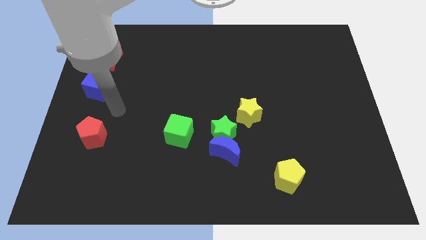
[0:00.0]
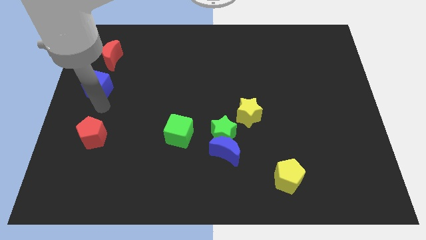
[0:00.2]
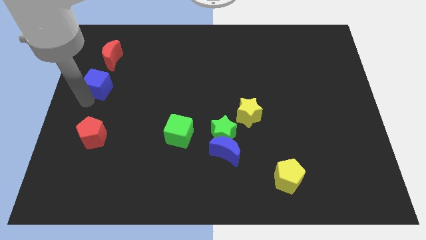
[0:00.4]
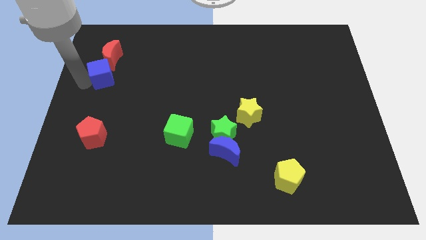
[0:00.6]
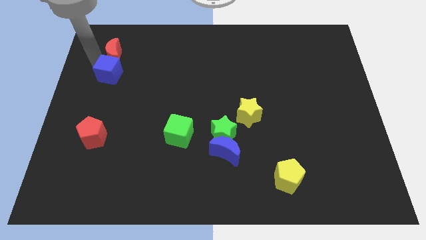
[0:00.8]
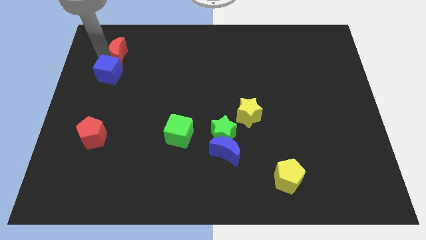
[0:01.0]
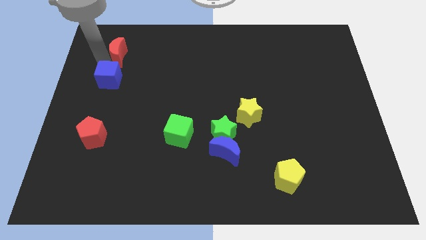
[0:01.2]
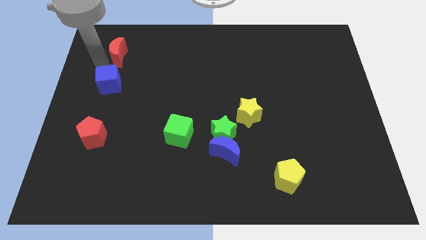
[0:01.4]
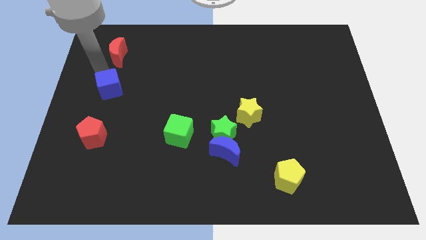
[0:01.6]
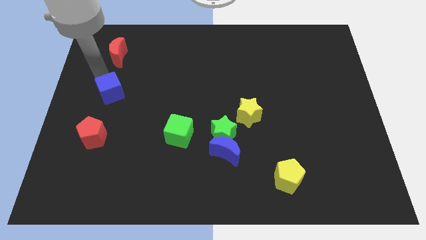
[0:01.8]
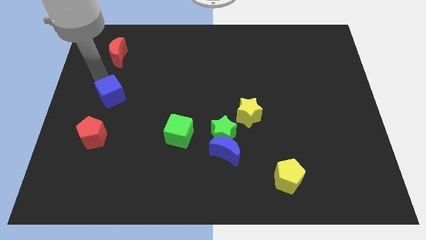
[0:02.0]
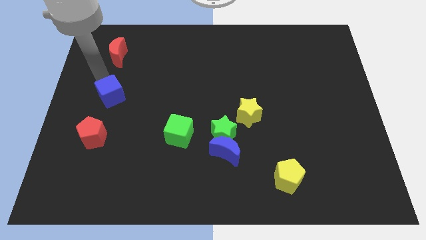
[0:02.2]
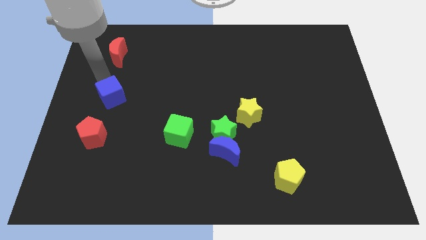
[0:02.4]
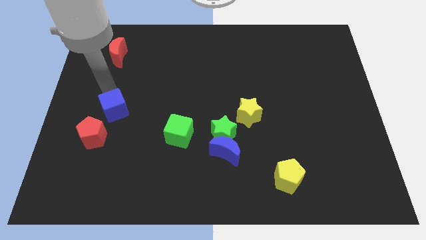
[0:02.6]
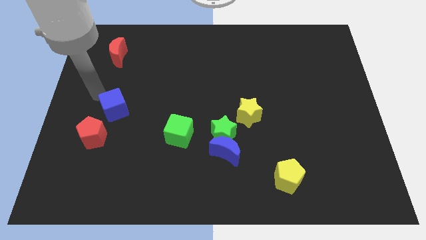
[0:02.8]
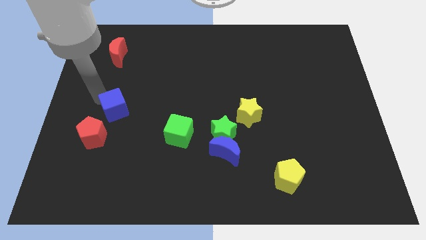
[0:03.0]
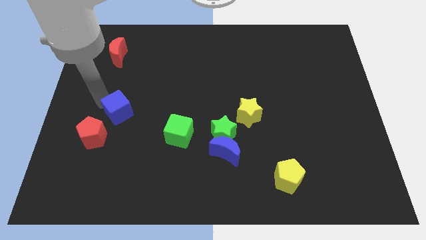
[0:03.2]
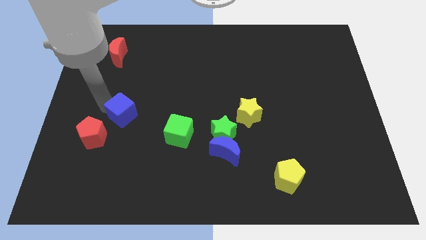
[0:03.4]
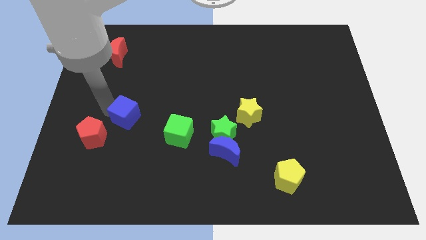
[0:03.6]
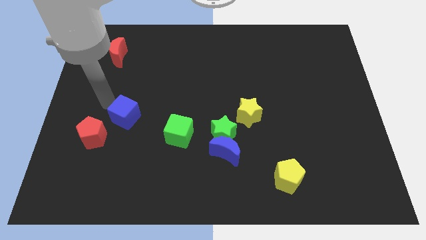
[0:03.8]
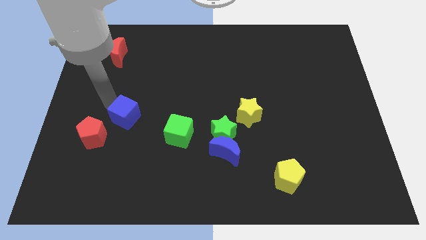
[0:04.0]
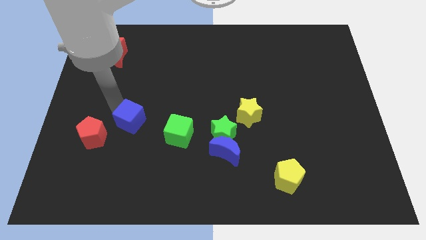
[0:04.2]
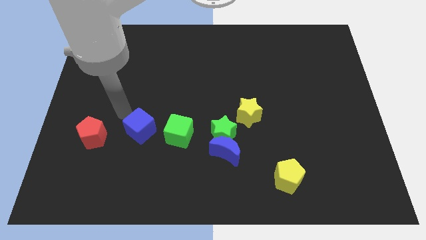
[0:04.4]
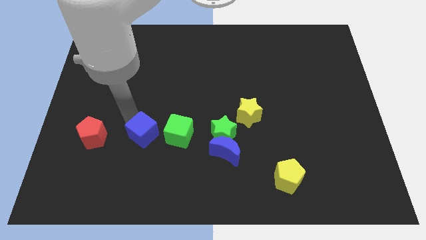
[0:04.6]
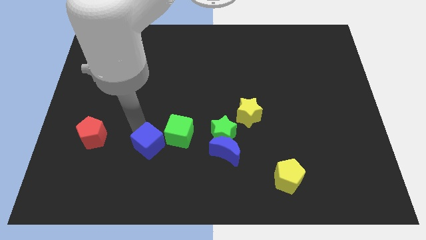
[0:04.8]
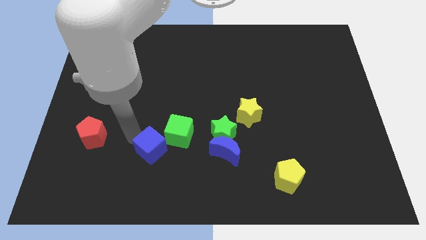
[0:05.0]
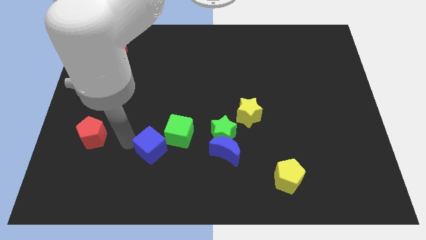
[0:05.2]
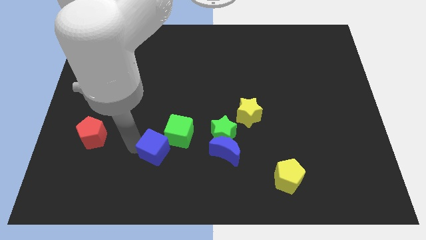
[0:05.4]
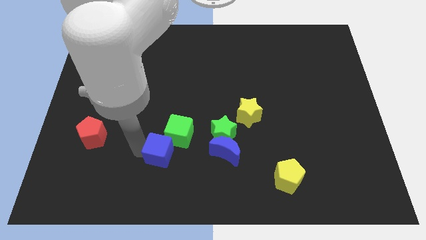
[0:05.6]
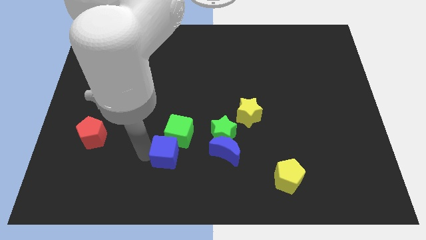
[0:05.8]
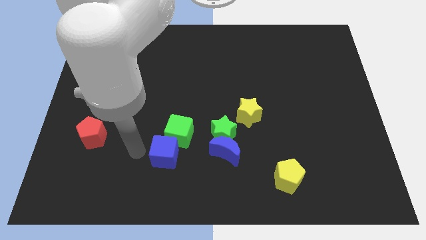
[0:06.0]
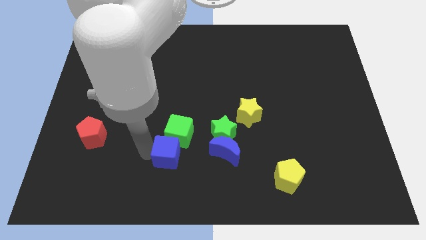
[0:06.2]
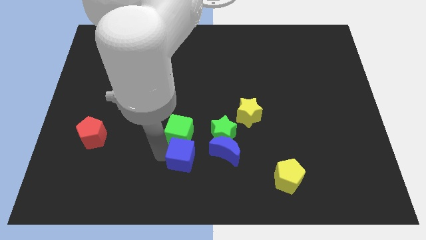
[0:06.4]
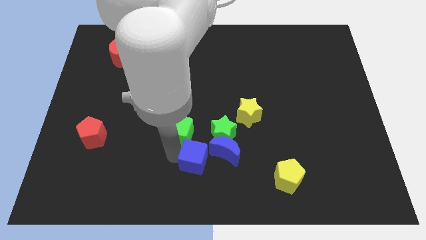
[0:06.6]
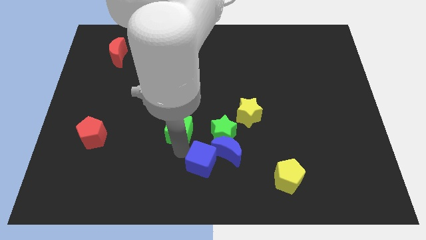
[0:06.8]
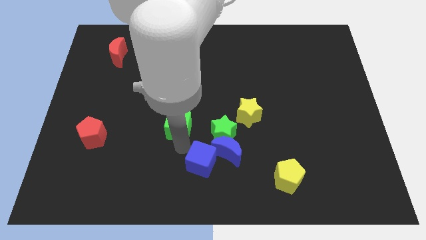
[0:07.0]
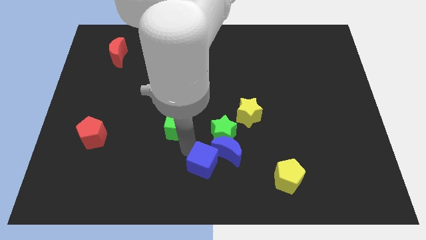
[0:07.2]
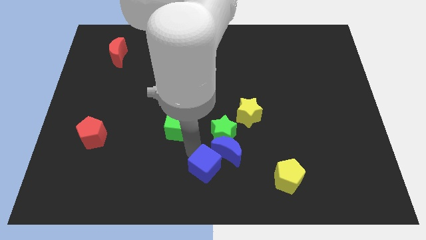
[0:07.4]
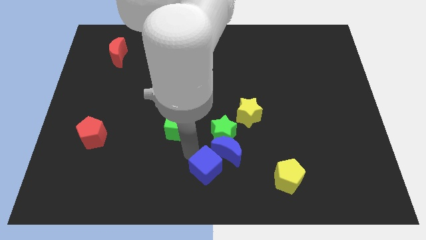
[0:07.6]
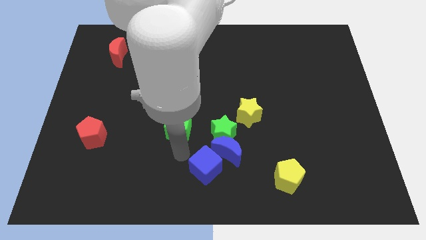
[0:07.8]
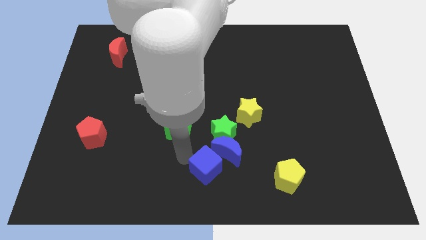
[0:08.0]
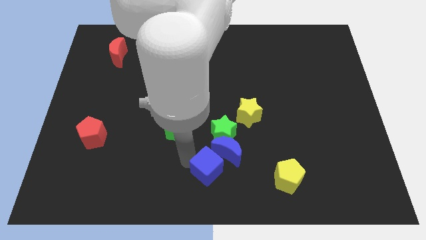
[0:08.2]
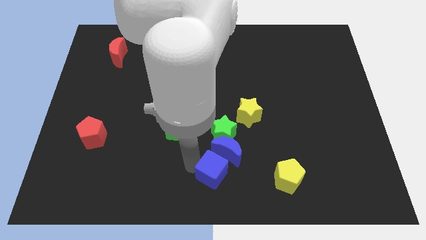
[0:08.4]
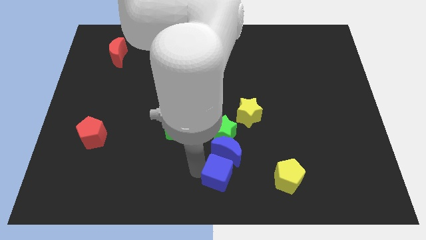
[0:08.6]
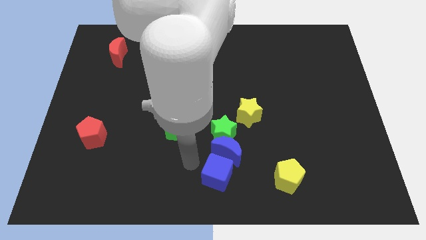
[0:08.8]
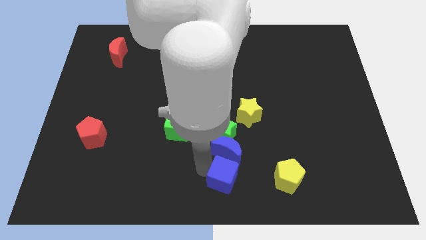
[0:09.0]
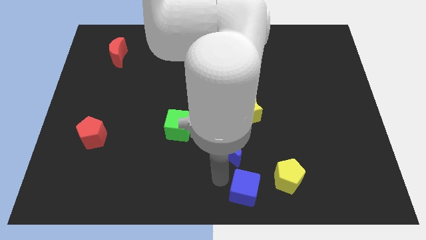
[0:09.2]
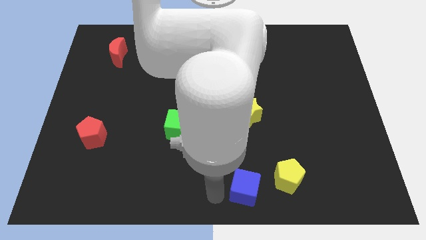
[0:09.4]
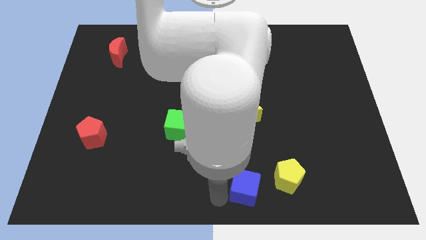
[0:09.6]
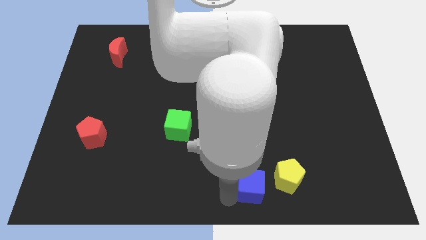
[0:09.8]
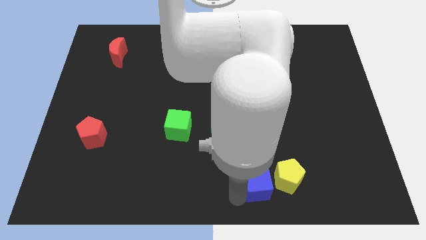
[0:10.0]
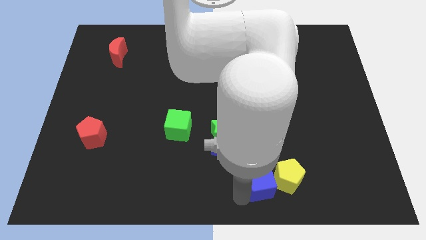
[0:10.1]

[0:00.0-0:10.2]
push the blue cube towards the yellow pentagon

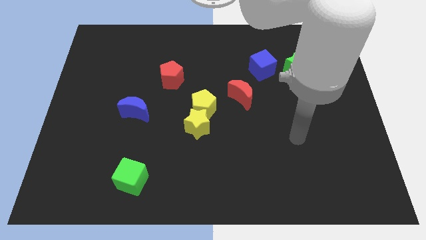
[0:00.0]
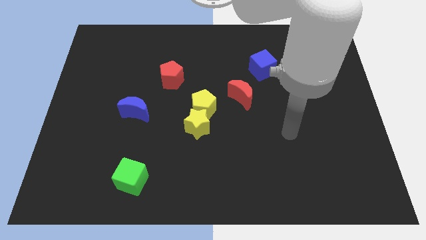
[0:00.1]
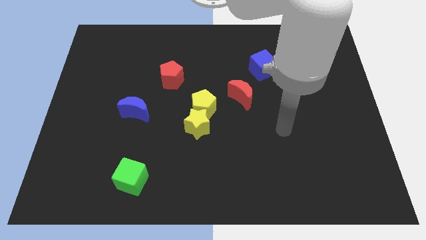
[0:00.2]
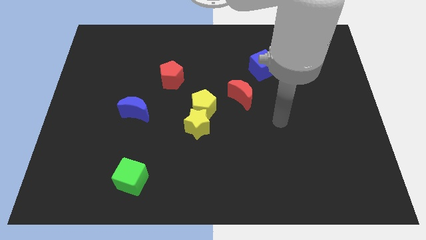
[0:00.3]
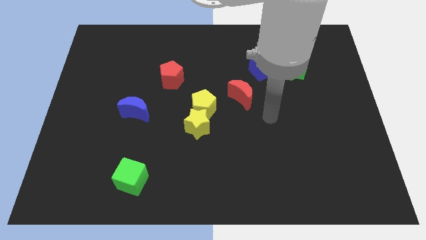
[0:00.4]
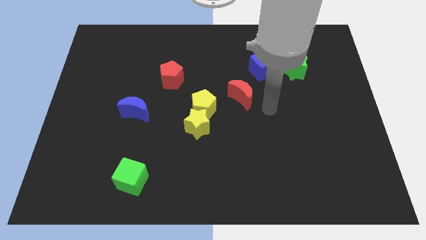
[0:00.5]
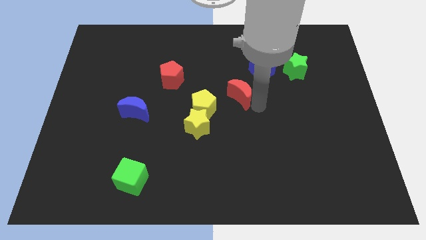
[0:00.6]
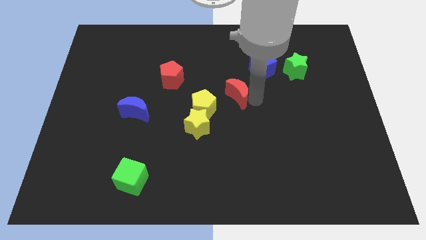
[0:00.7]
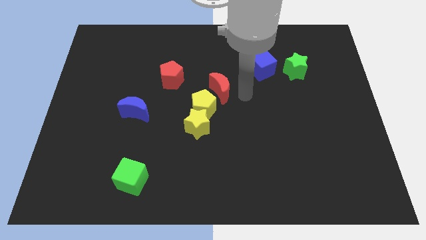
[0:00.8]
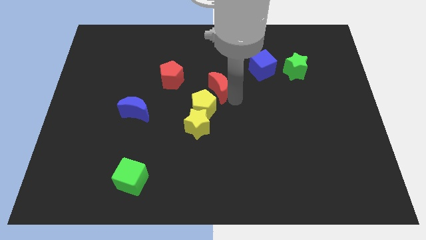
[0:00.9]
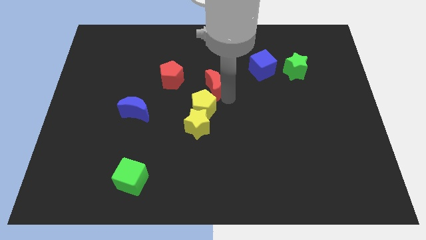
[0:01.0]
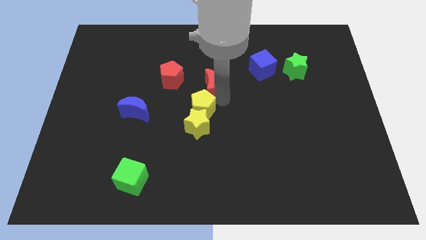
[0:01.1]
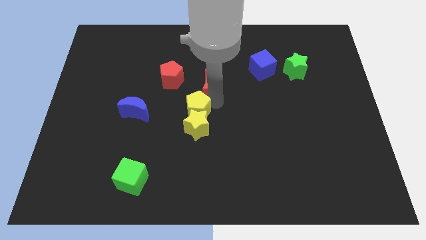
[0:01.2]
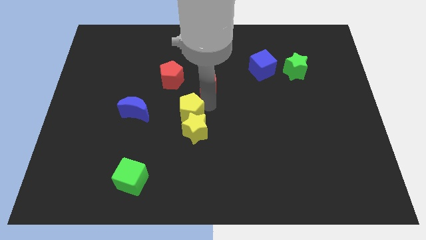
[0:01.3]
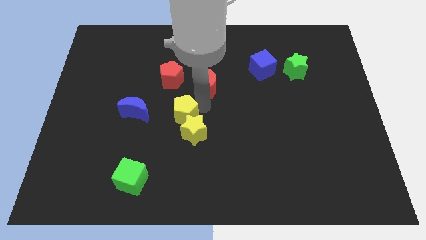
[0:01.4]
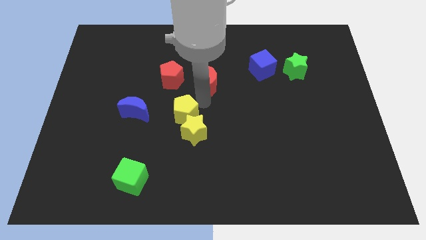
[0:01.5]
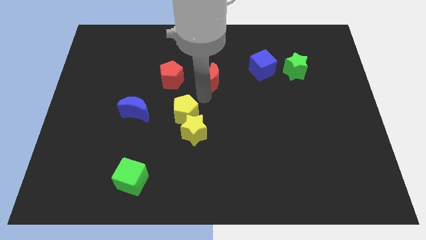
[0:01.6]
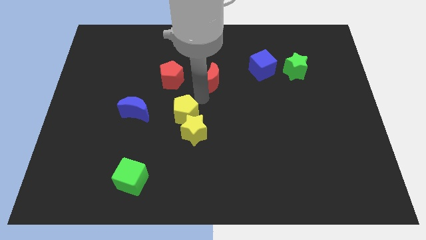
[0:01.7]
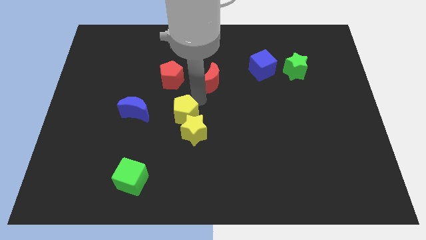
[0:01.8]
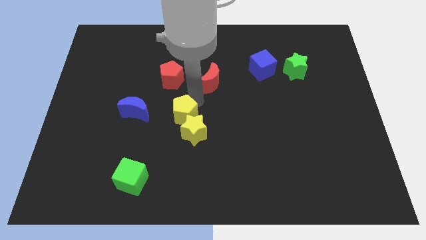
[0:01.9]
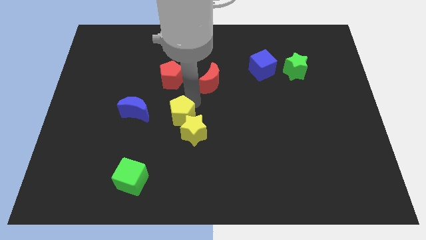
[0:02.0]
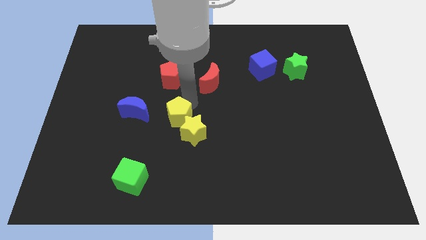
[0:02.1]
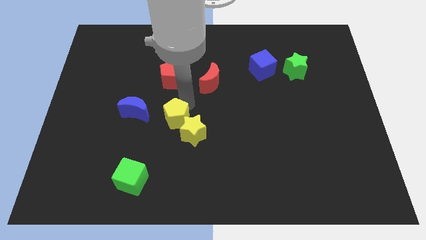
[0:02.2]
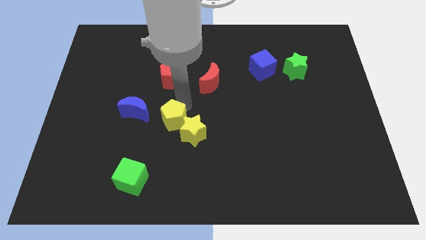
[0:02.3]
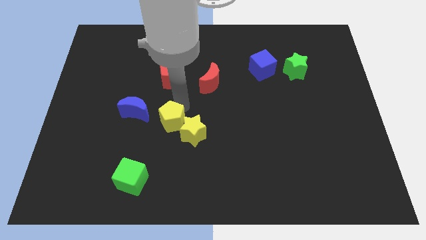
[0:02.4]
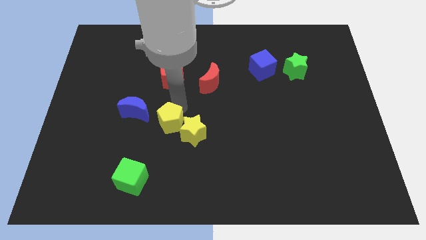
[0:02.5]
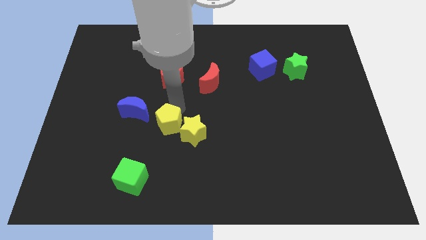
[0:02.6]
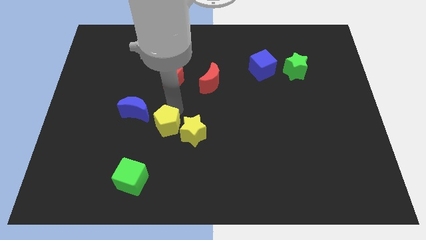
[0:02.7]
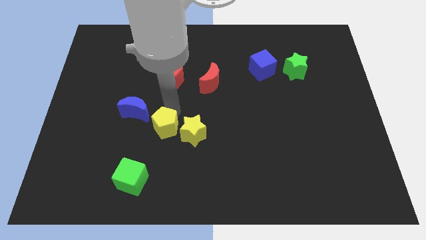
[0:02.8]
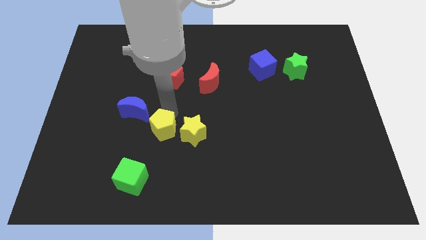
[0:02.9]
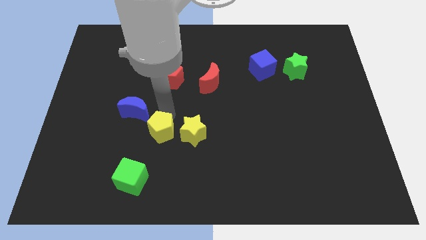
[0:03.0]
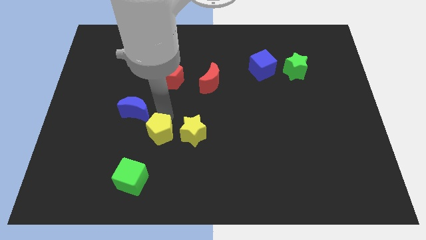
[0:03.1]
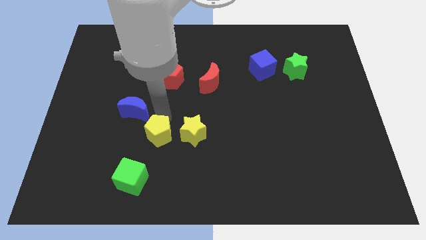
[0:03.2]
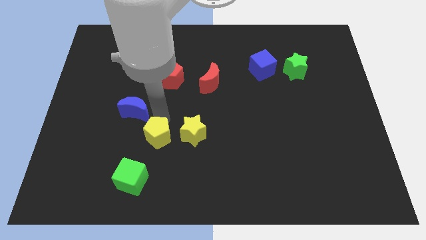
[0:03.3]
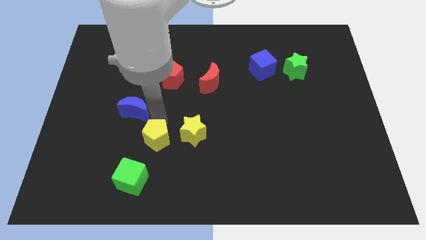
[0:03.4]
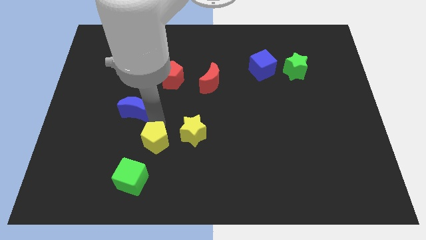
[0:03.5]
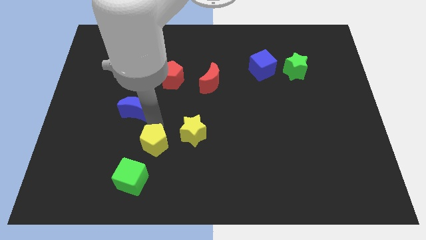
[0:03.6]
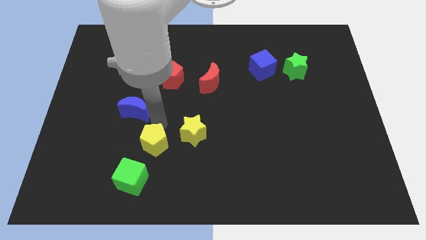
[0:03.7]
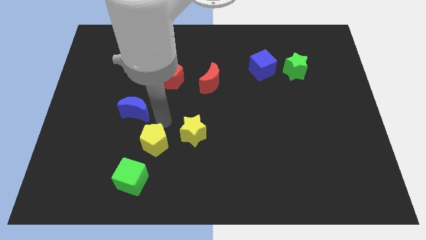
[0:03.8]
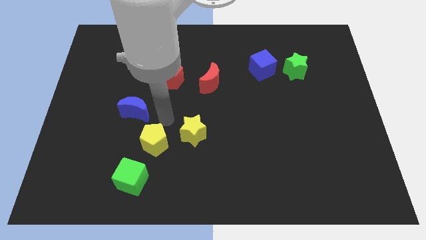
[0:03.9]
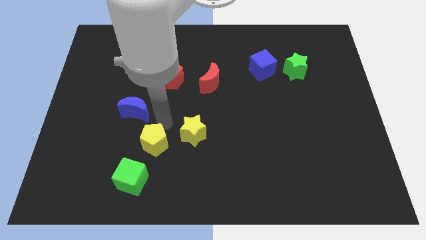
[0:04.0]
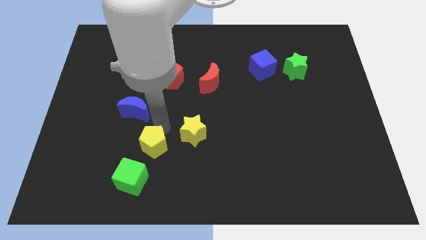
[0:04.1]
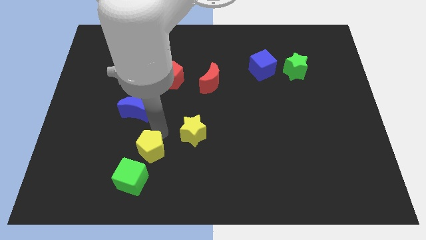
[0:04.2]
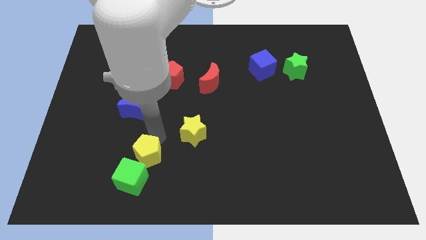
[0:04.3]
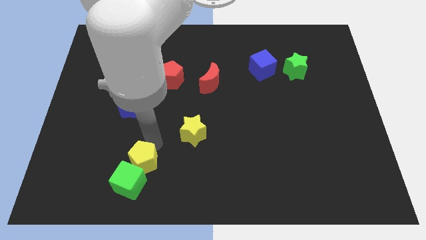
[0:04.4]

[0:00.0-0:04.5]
move the yellow pentagon towards the green cube
